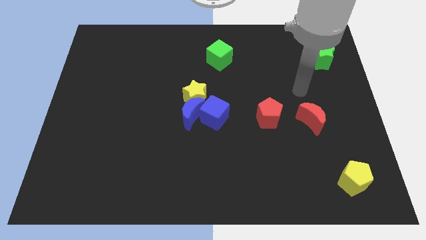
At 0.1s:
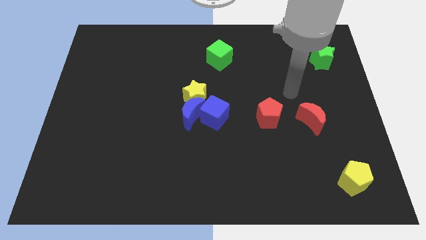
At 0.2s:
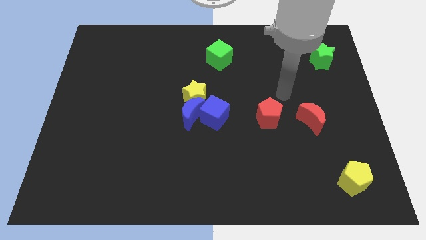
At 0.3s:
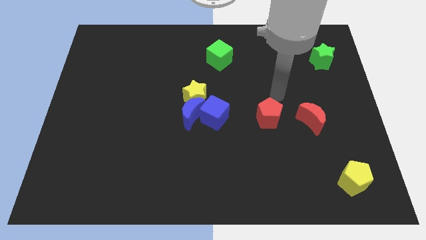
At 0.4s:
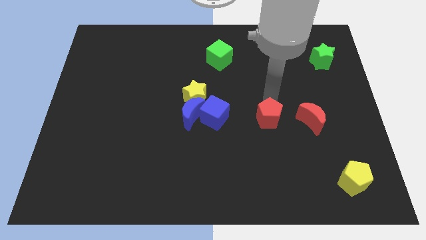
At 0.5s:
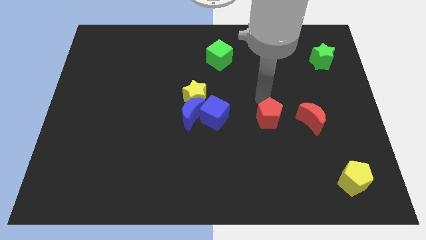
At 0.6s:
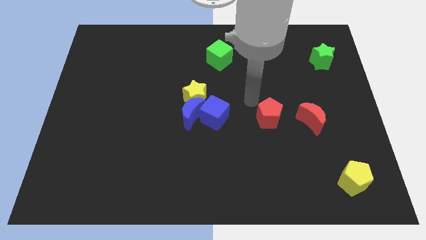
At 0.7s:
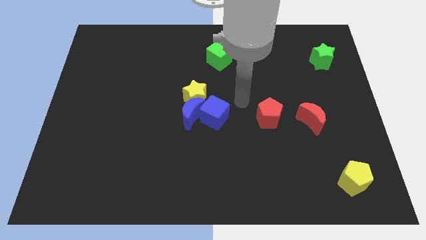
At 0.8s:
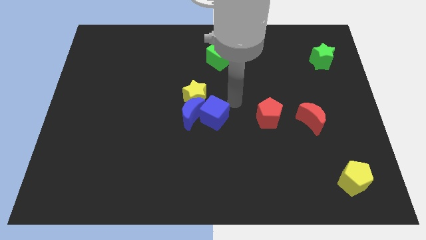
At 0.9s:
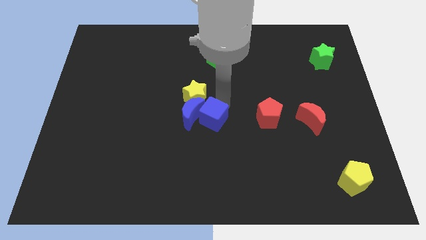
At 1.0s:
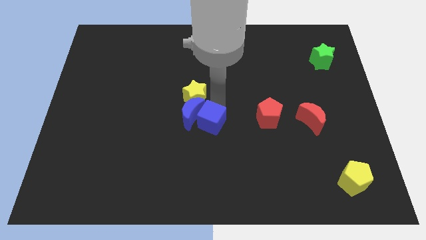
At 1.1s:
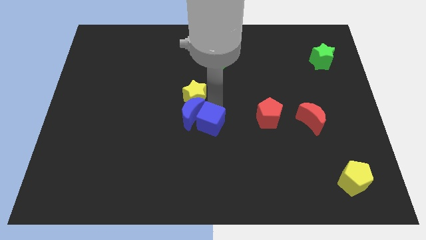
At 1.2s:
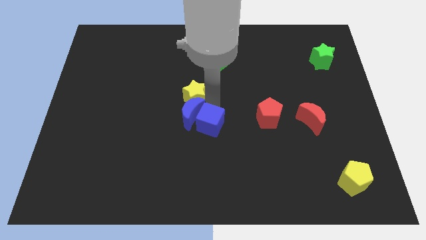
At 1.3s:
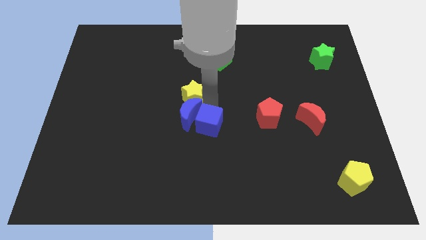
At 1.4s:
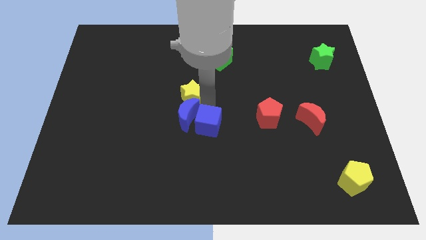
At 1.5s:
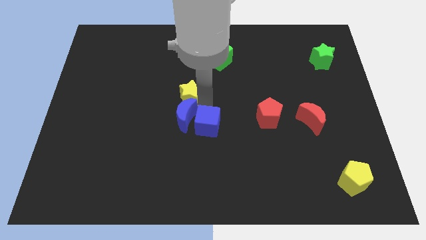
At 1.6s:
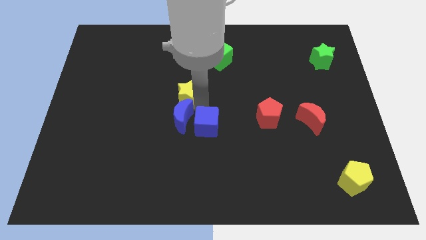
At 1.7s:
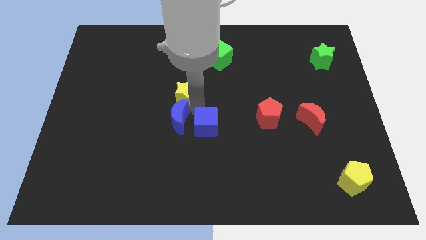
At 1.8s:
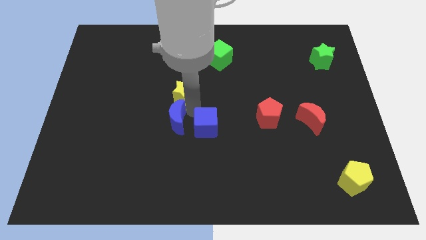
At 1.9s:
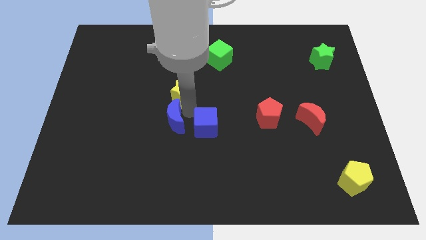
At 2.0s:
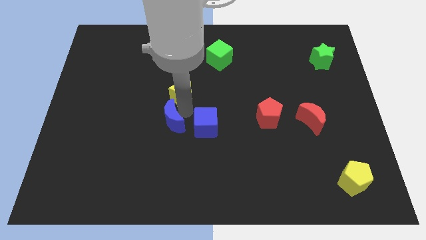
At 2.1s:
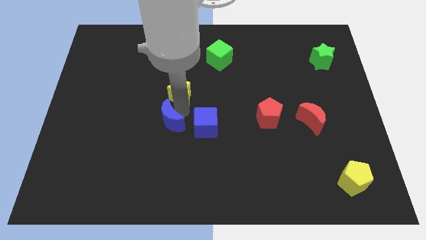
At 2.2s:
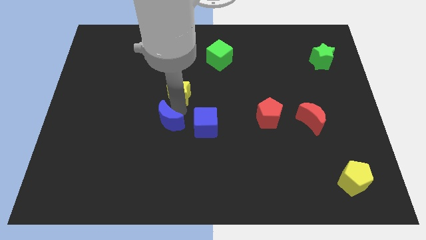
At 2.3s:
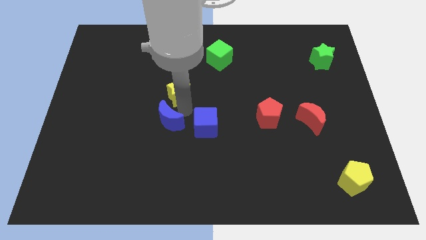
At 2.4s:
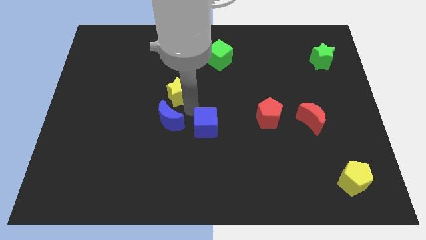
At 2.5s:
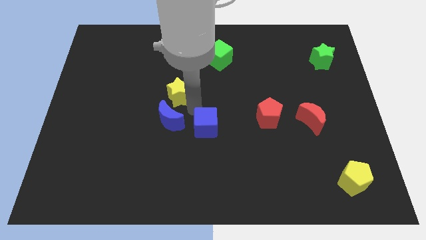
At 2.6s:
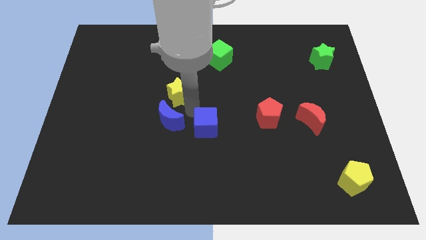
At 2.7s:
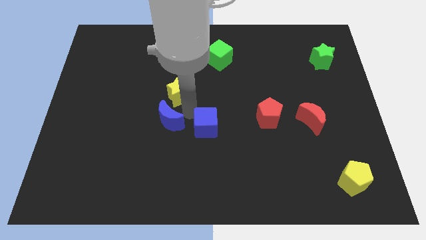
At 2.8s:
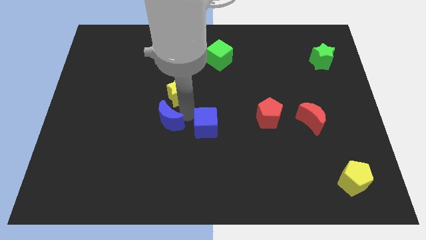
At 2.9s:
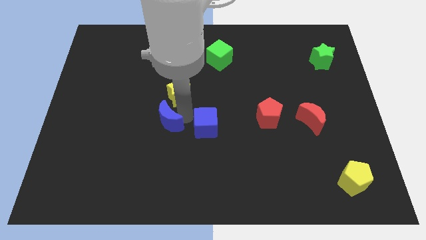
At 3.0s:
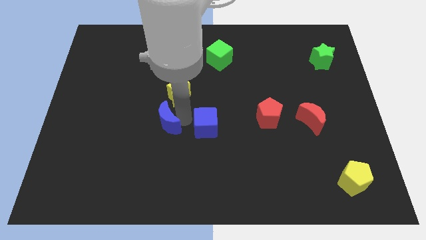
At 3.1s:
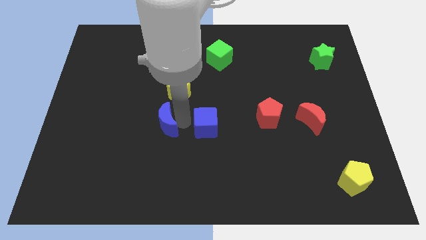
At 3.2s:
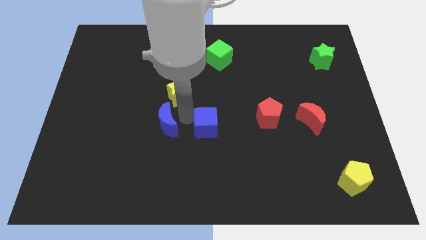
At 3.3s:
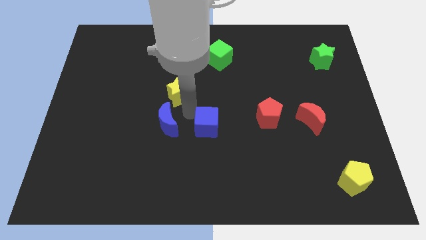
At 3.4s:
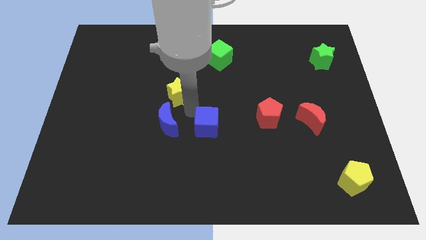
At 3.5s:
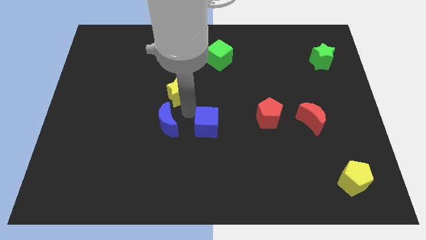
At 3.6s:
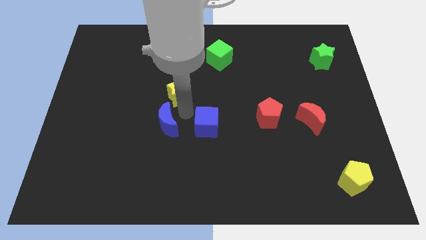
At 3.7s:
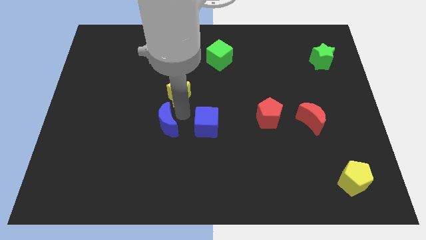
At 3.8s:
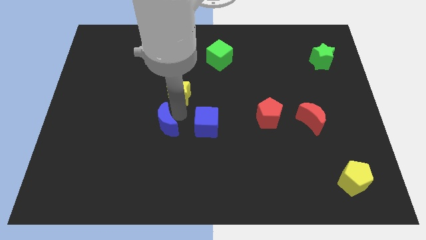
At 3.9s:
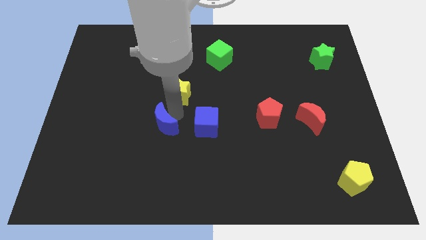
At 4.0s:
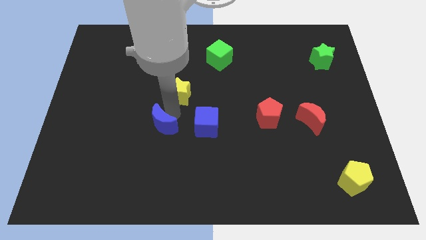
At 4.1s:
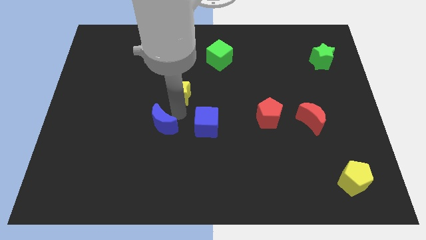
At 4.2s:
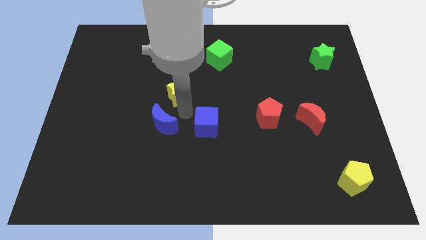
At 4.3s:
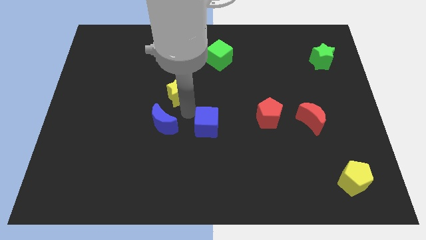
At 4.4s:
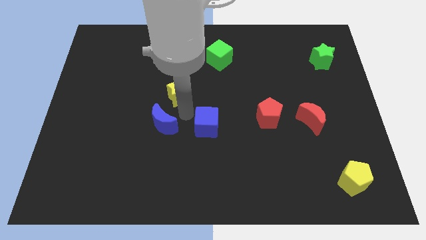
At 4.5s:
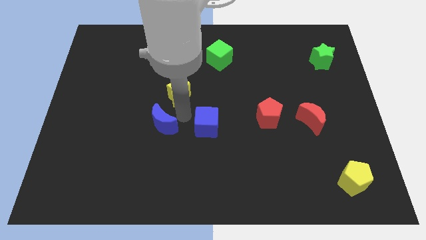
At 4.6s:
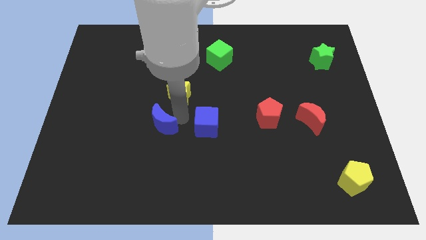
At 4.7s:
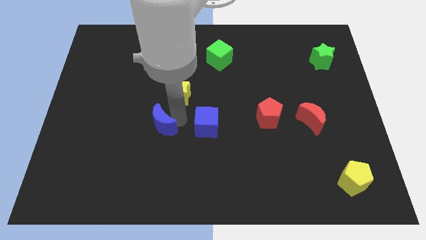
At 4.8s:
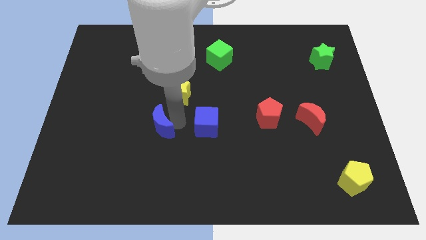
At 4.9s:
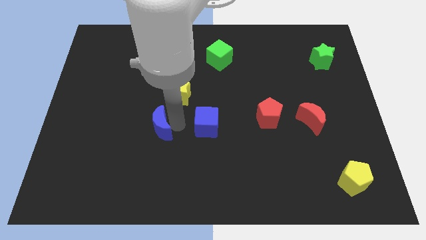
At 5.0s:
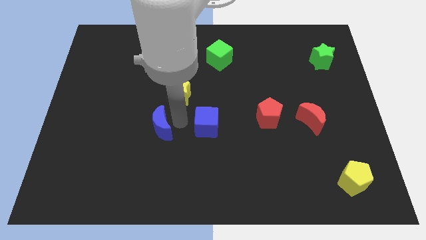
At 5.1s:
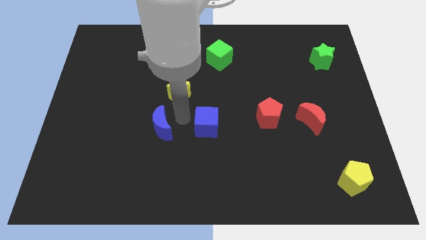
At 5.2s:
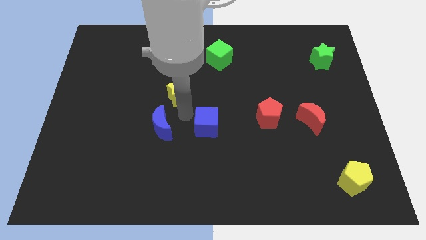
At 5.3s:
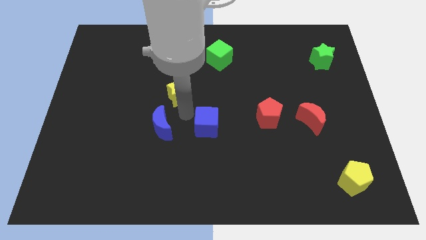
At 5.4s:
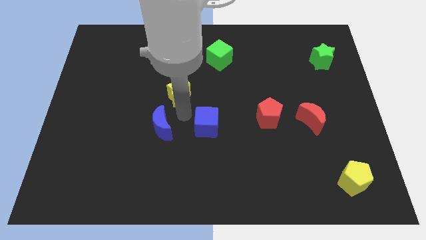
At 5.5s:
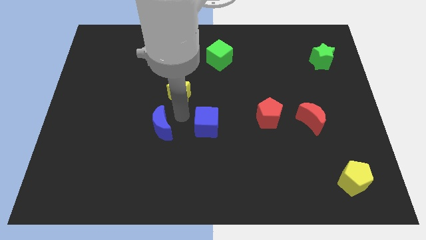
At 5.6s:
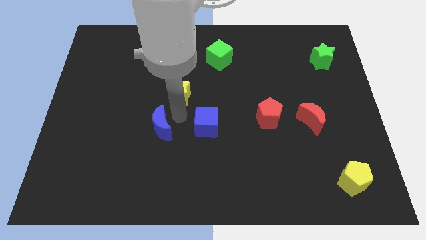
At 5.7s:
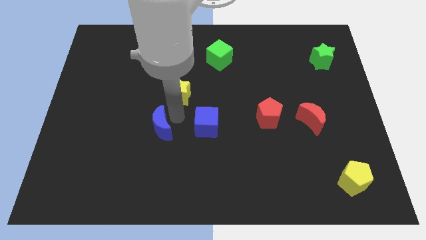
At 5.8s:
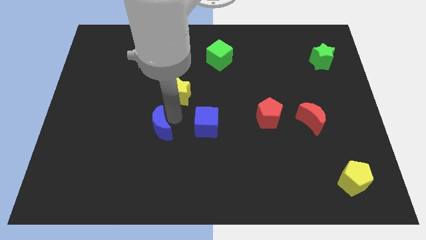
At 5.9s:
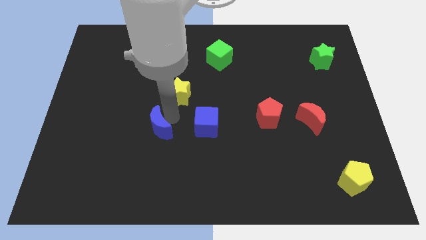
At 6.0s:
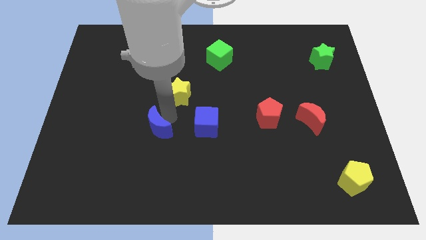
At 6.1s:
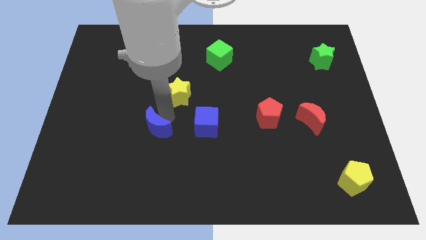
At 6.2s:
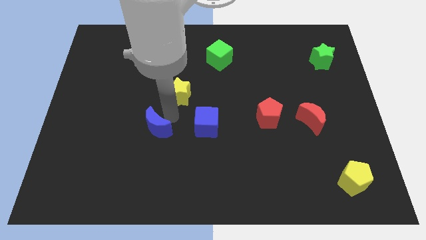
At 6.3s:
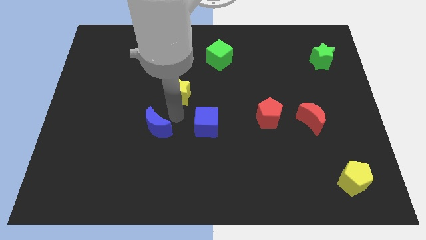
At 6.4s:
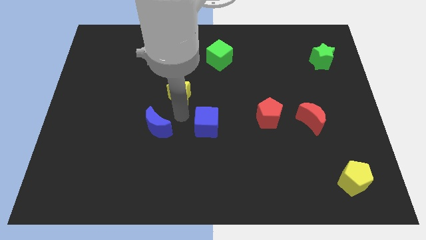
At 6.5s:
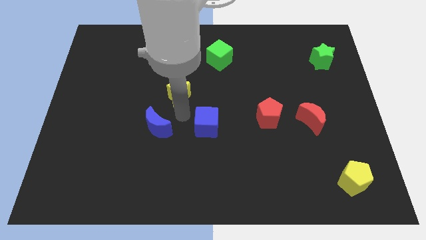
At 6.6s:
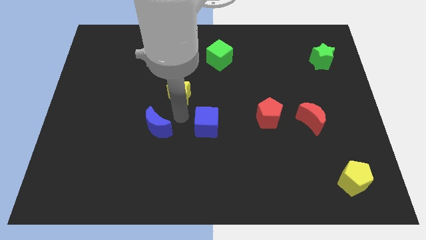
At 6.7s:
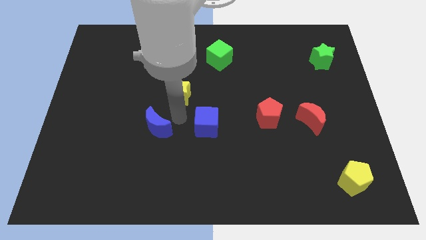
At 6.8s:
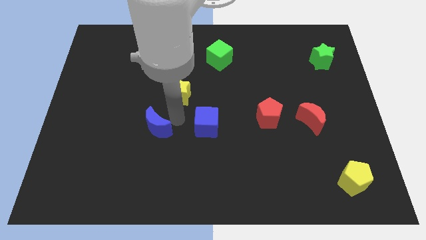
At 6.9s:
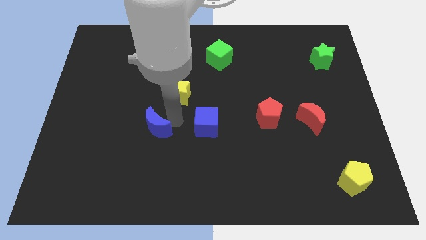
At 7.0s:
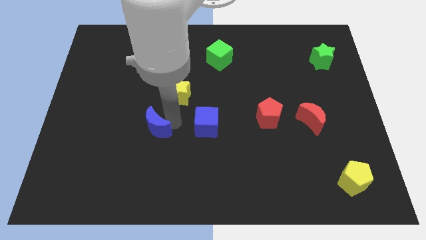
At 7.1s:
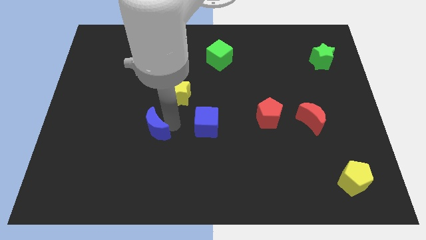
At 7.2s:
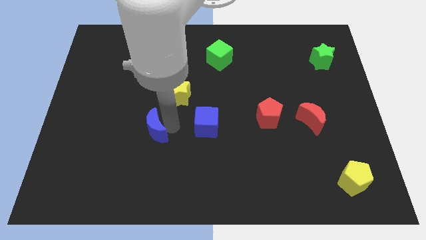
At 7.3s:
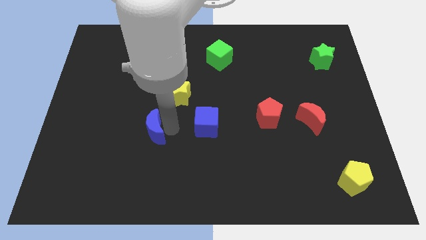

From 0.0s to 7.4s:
separate the blue moon from the yellow star and blue cube

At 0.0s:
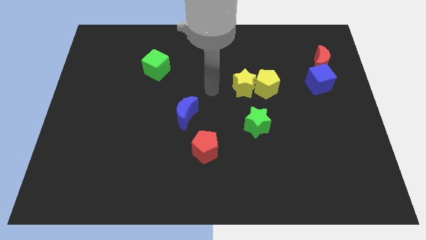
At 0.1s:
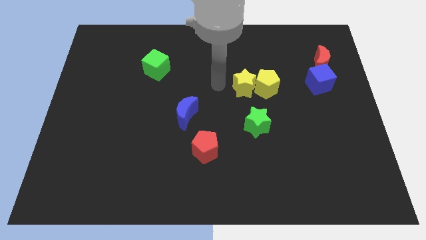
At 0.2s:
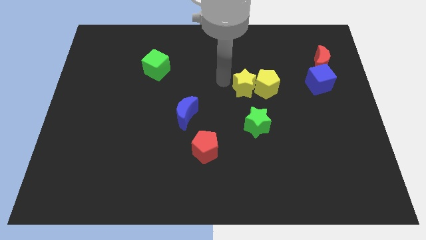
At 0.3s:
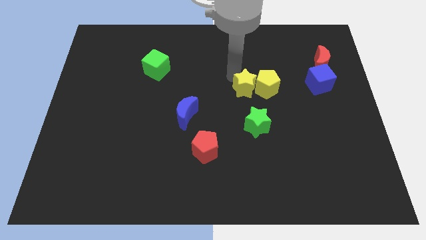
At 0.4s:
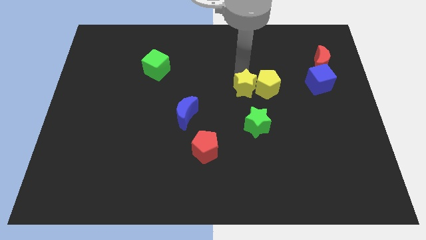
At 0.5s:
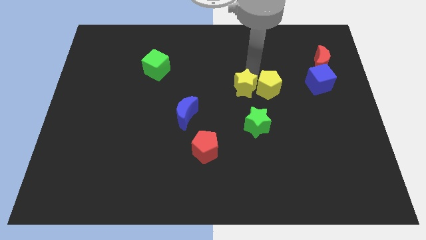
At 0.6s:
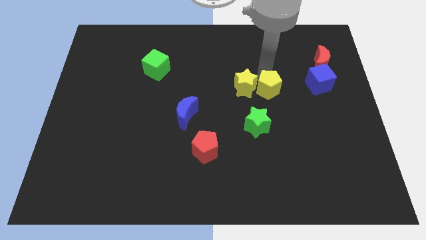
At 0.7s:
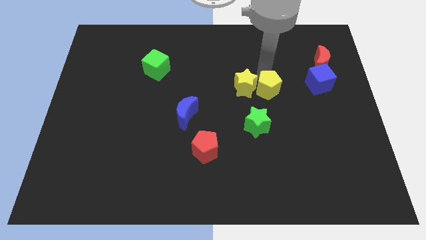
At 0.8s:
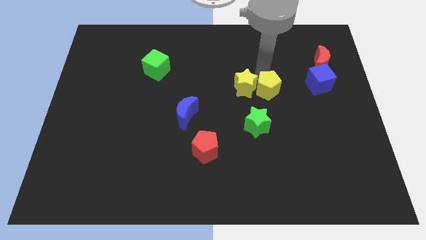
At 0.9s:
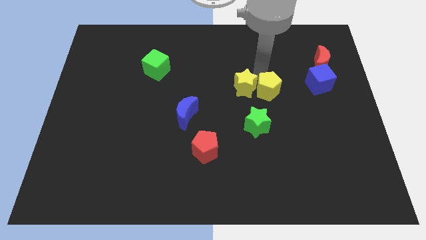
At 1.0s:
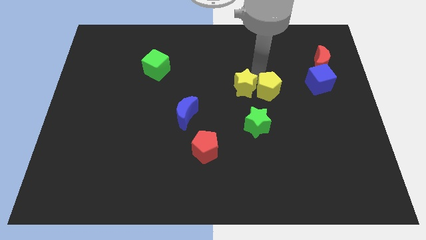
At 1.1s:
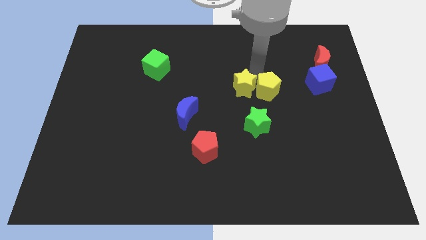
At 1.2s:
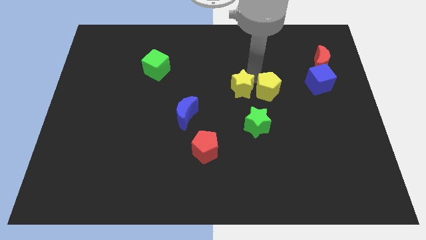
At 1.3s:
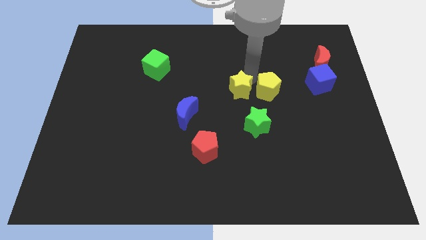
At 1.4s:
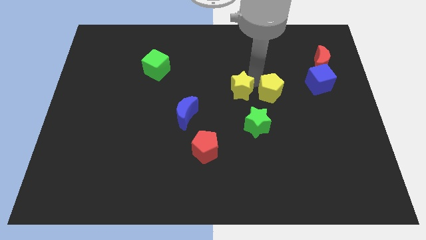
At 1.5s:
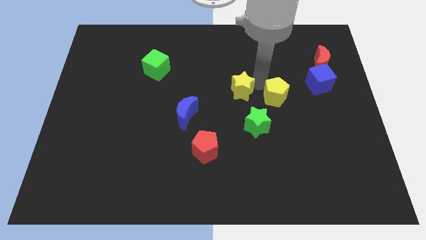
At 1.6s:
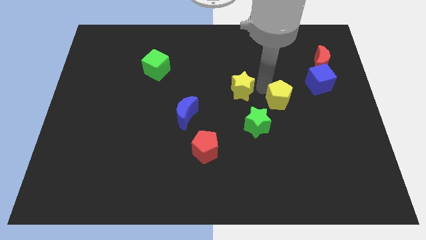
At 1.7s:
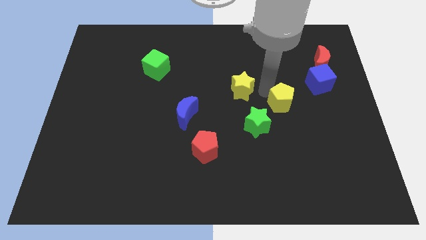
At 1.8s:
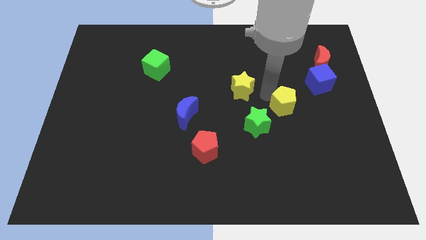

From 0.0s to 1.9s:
separate the yellow star from the yellow pentagon

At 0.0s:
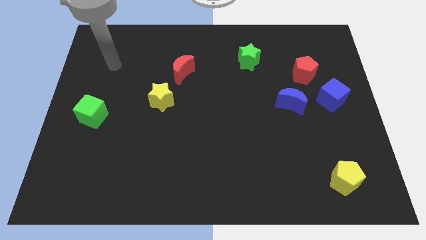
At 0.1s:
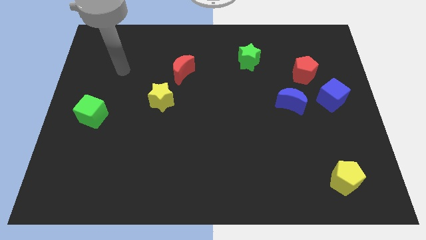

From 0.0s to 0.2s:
pull the red pentagon apart from the blue cube
